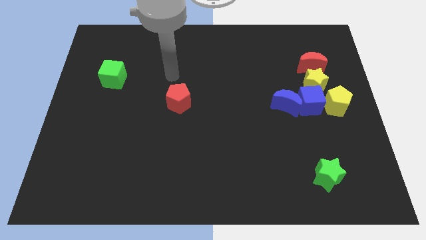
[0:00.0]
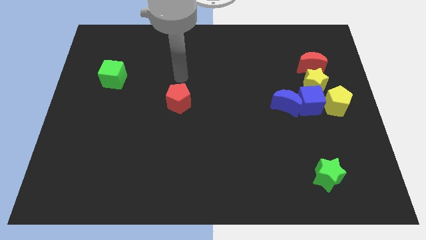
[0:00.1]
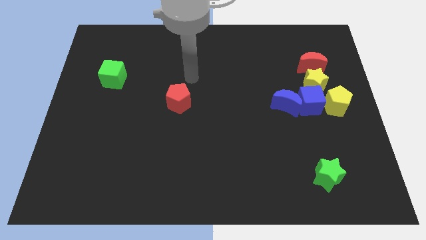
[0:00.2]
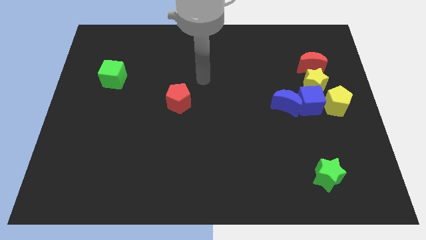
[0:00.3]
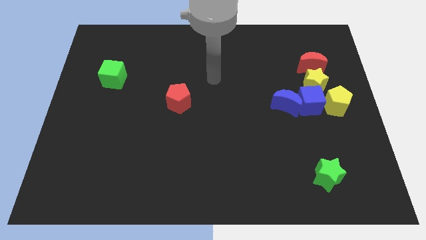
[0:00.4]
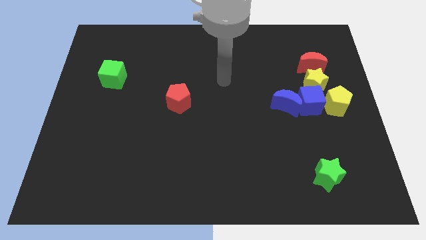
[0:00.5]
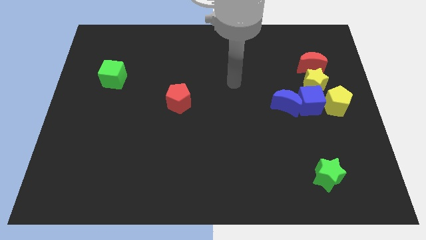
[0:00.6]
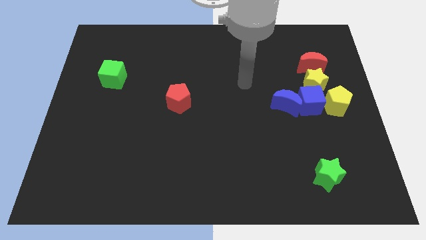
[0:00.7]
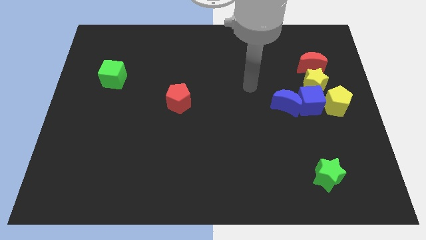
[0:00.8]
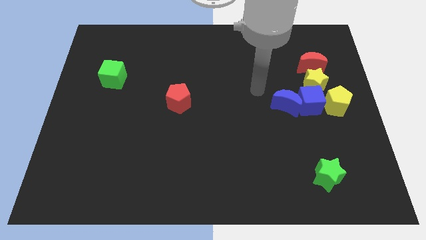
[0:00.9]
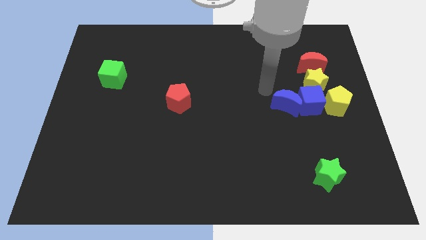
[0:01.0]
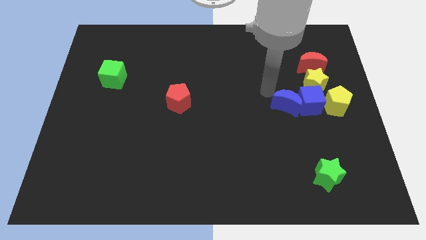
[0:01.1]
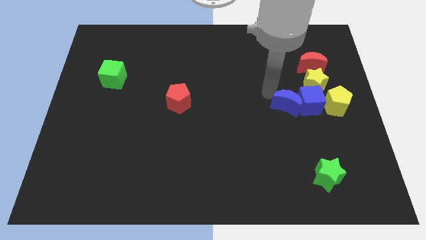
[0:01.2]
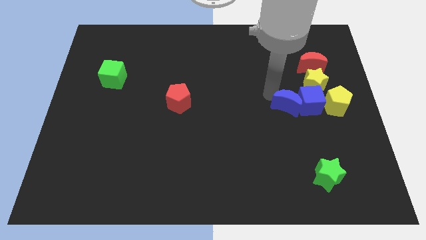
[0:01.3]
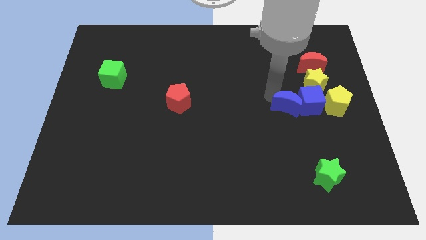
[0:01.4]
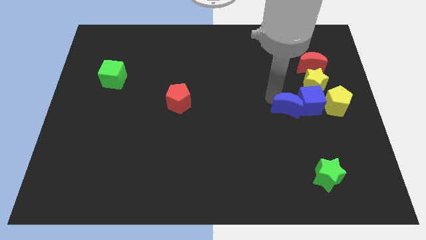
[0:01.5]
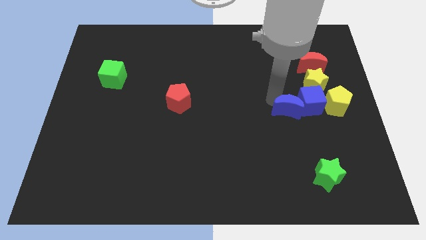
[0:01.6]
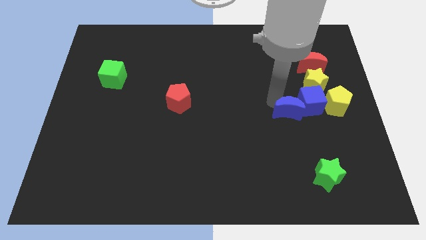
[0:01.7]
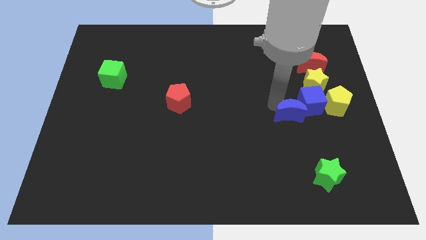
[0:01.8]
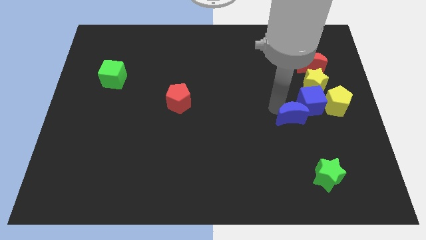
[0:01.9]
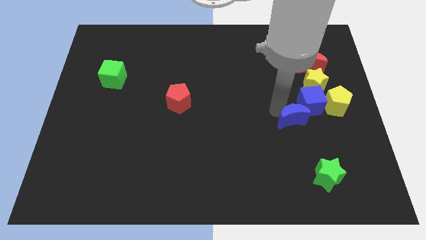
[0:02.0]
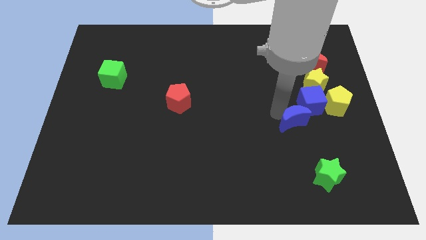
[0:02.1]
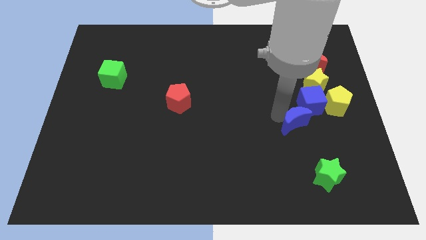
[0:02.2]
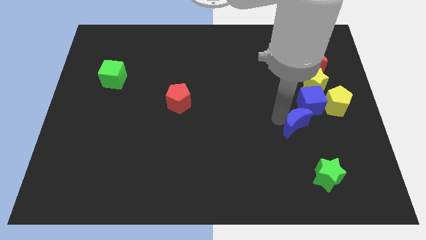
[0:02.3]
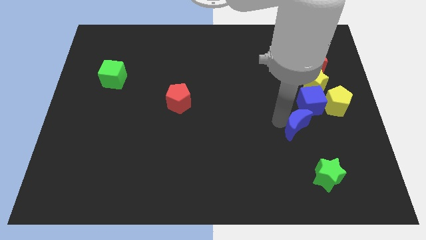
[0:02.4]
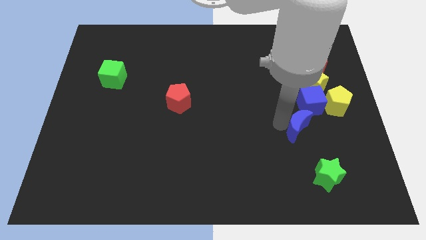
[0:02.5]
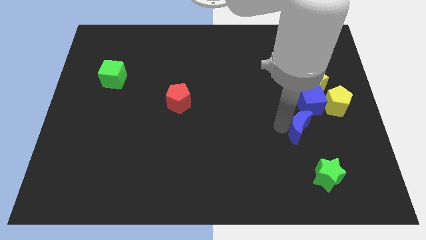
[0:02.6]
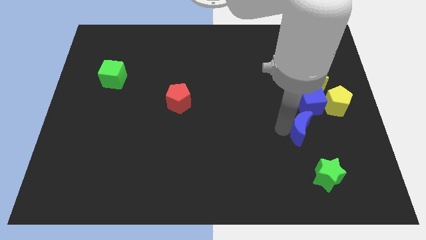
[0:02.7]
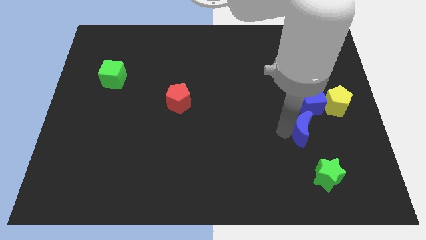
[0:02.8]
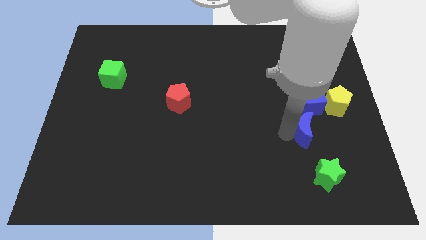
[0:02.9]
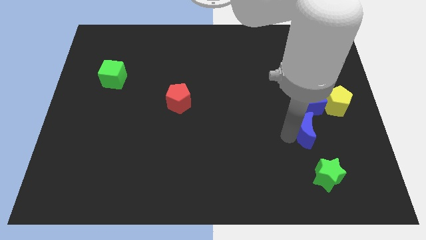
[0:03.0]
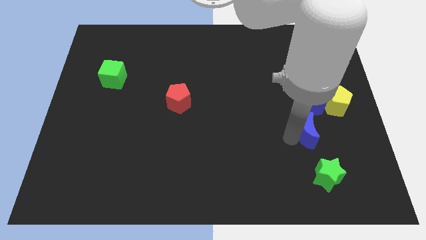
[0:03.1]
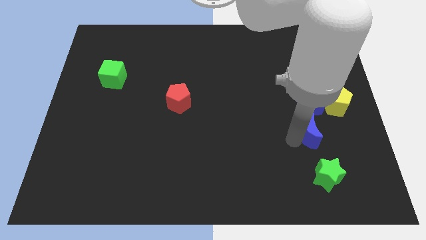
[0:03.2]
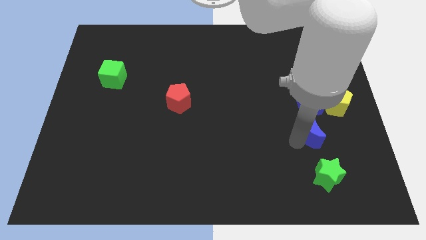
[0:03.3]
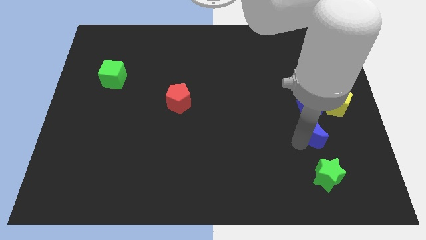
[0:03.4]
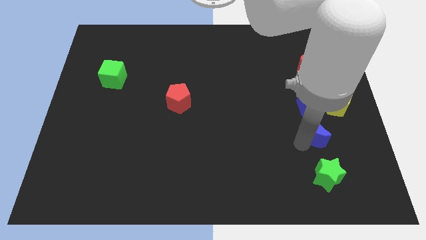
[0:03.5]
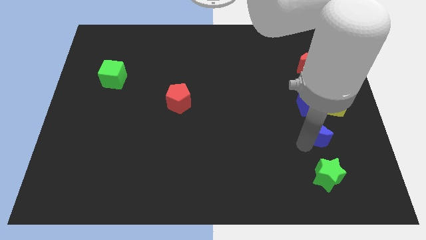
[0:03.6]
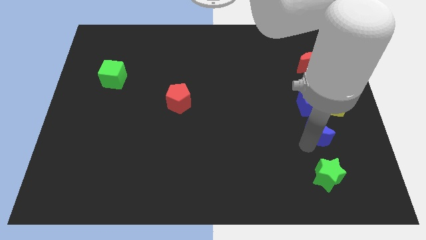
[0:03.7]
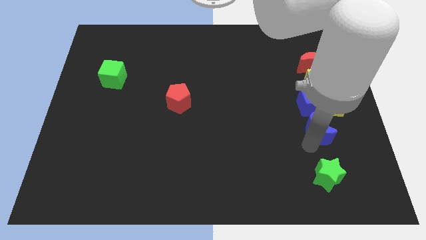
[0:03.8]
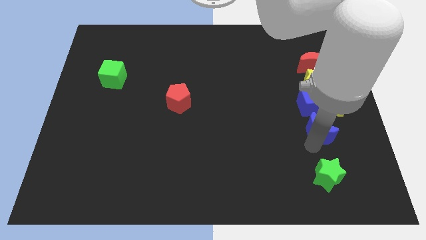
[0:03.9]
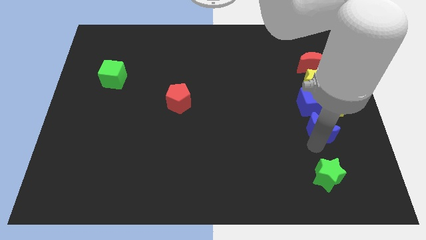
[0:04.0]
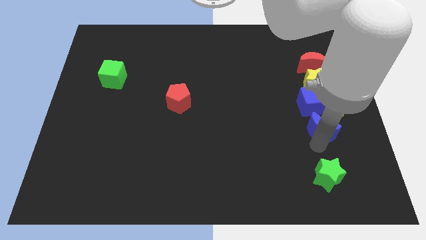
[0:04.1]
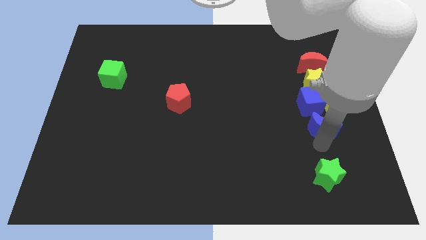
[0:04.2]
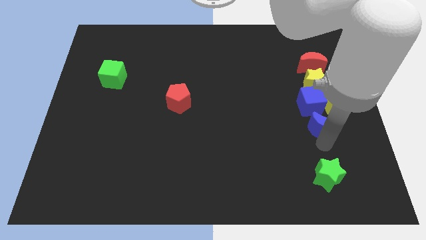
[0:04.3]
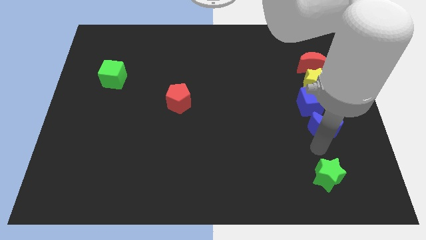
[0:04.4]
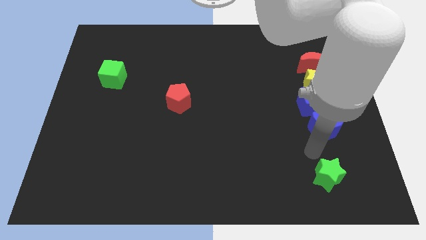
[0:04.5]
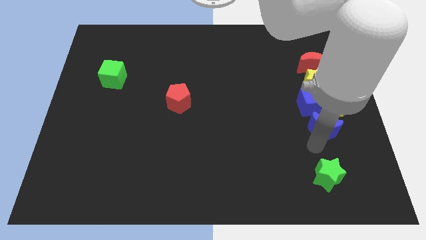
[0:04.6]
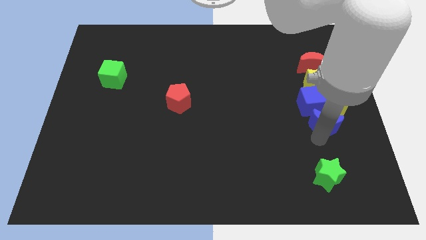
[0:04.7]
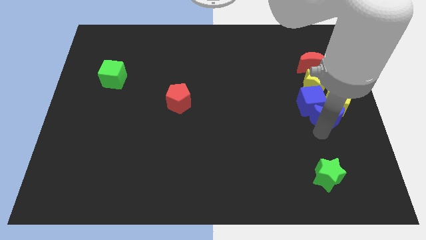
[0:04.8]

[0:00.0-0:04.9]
slide the blue moon to the yellow pentagon

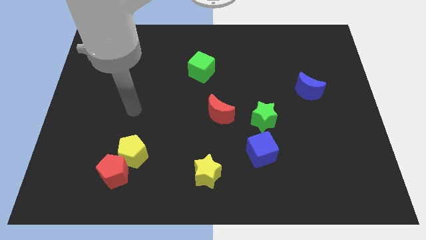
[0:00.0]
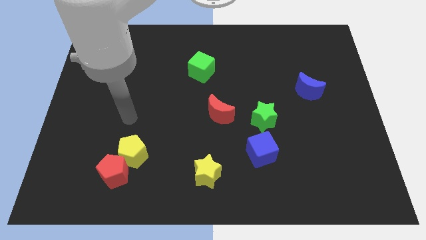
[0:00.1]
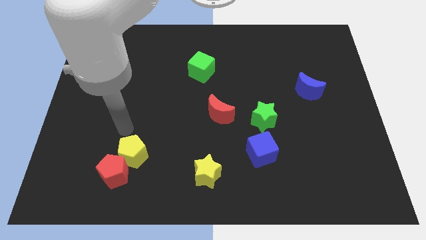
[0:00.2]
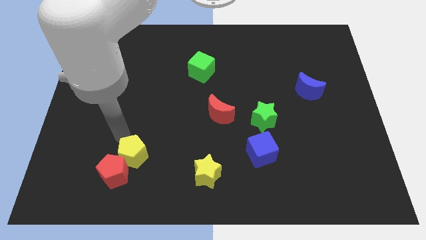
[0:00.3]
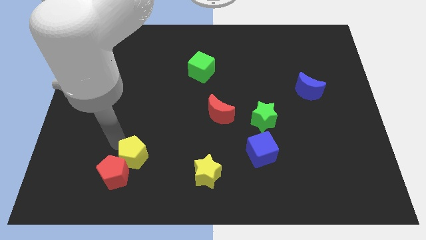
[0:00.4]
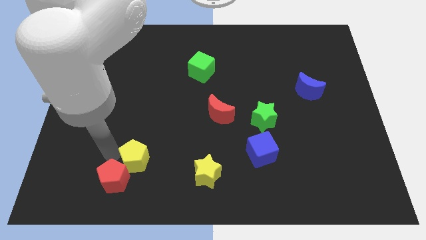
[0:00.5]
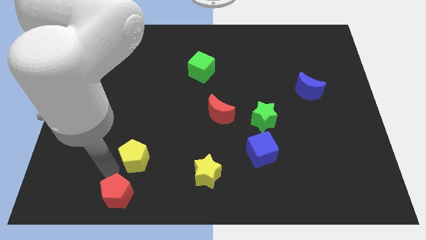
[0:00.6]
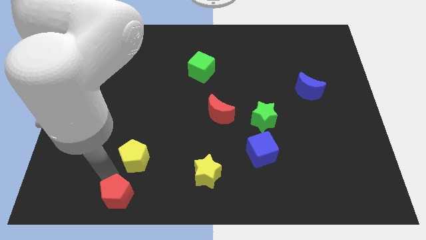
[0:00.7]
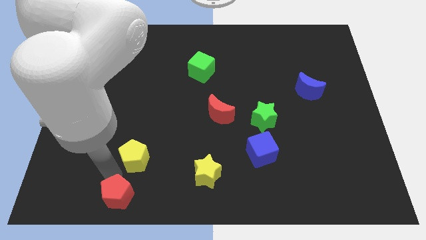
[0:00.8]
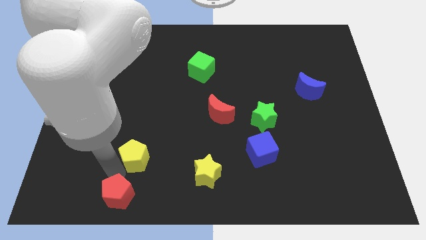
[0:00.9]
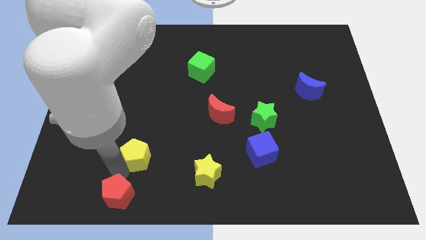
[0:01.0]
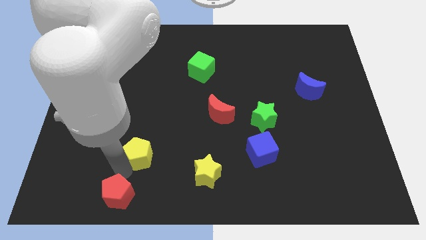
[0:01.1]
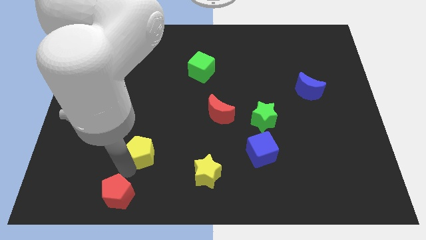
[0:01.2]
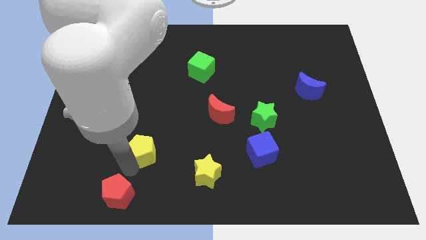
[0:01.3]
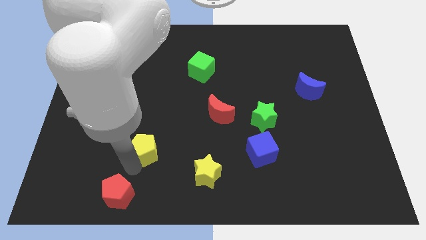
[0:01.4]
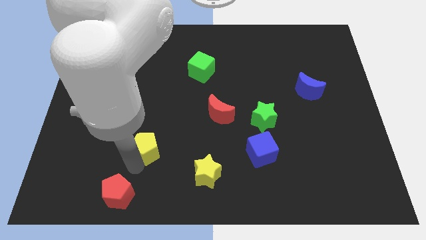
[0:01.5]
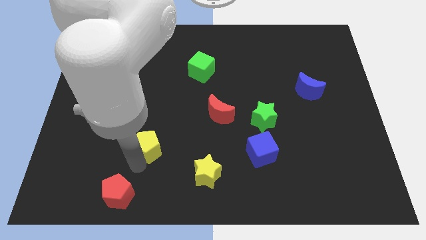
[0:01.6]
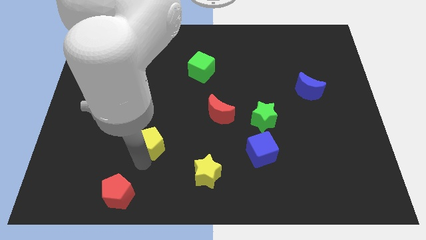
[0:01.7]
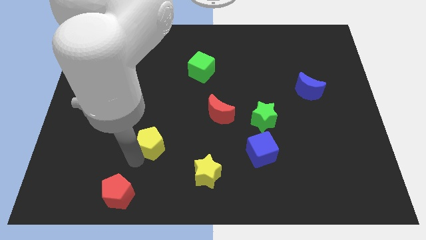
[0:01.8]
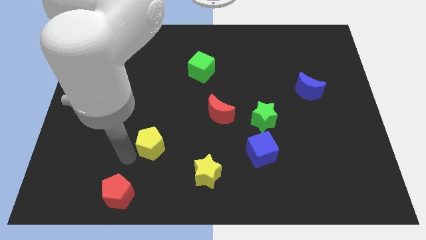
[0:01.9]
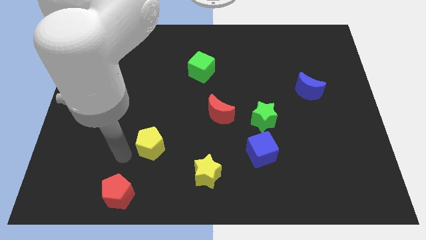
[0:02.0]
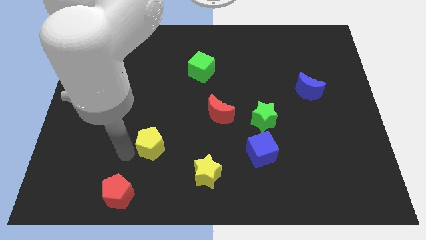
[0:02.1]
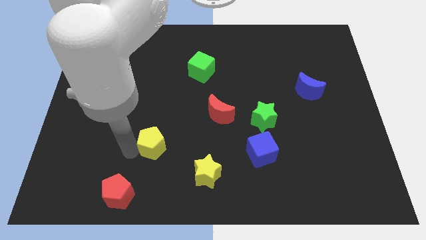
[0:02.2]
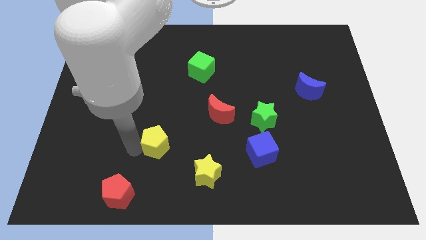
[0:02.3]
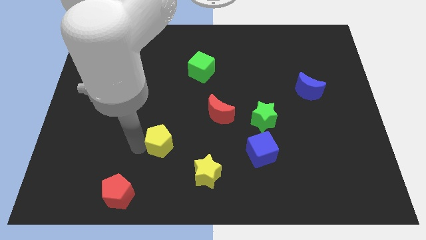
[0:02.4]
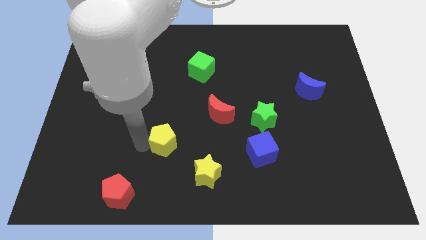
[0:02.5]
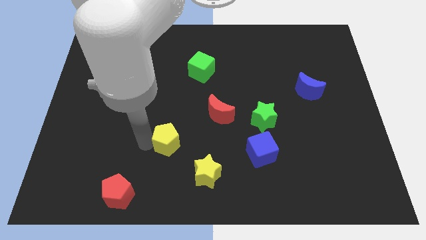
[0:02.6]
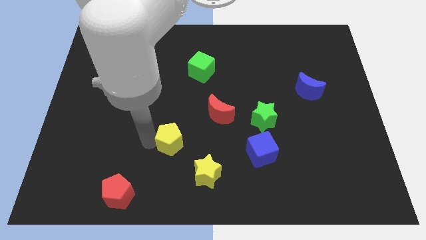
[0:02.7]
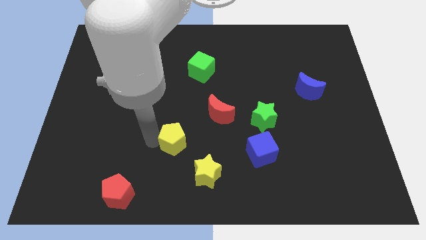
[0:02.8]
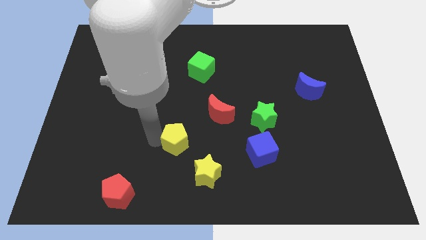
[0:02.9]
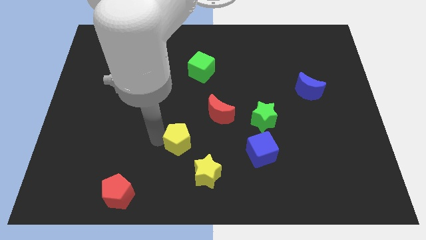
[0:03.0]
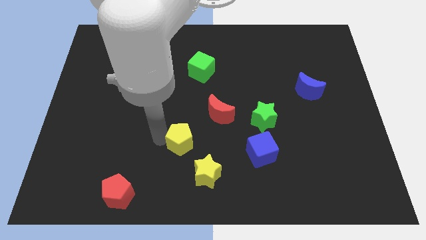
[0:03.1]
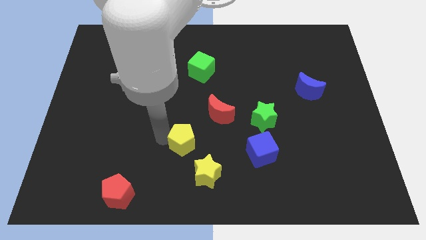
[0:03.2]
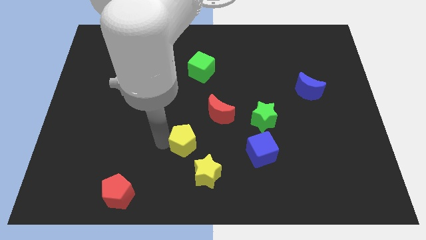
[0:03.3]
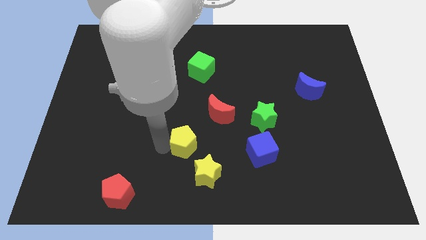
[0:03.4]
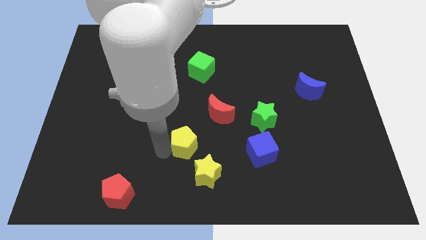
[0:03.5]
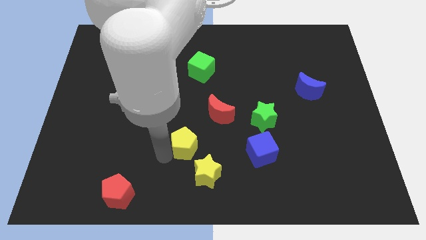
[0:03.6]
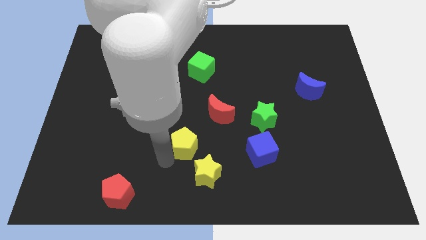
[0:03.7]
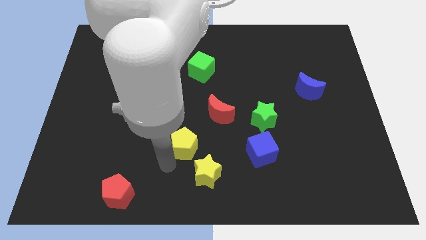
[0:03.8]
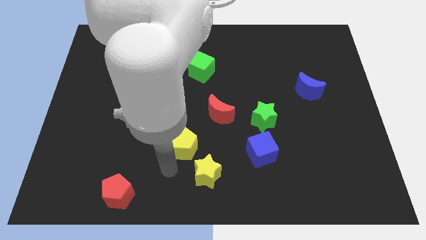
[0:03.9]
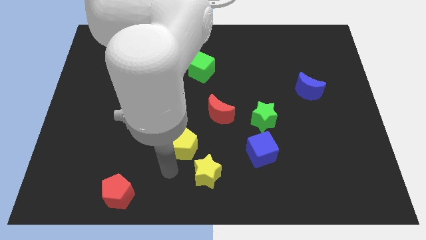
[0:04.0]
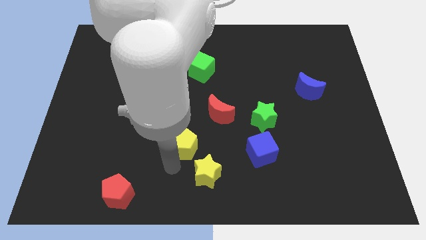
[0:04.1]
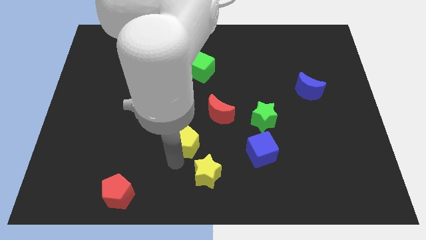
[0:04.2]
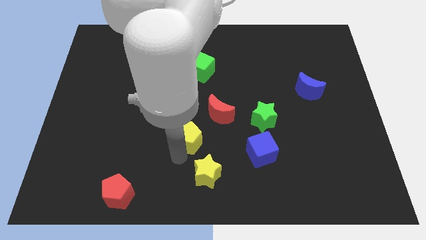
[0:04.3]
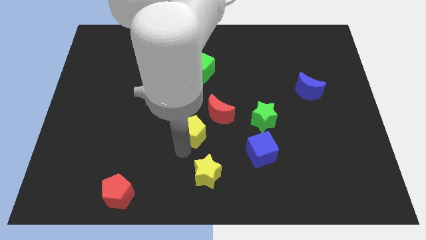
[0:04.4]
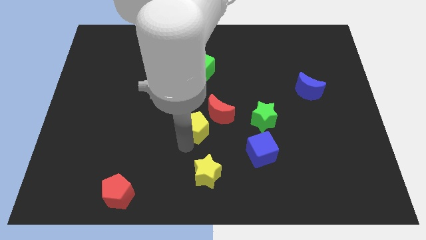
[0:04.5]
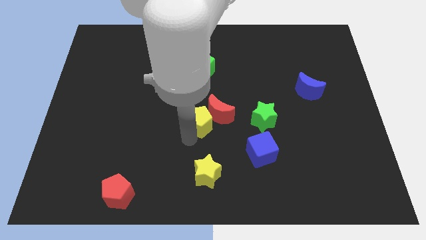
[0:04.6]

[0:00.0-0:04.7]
put the yellow pentagon to the red moon
